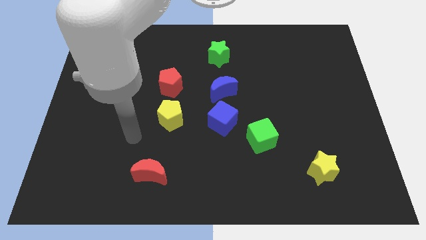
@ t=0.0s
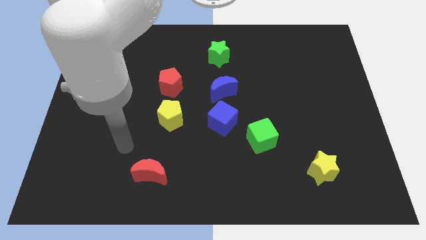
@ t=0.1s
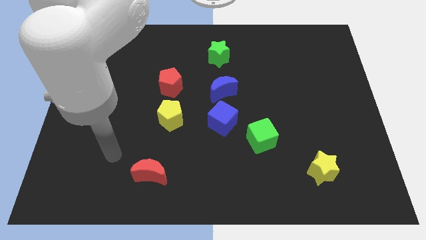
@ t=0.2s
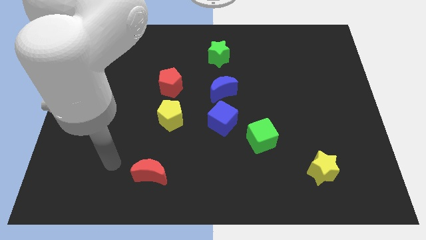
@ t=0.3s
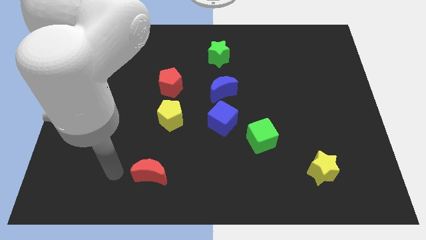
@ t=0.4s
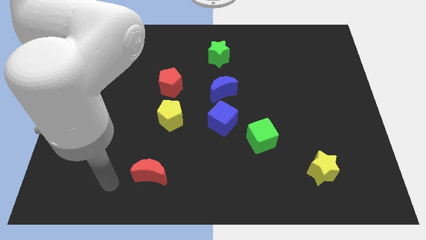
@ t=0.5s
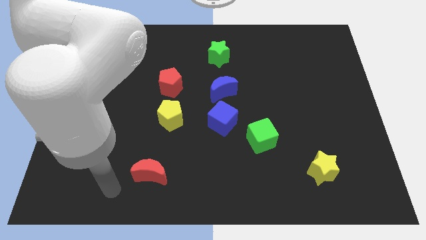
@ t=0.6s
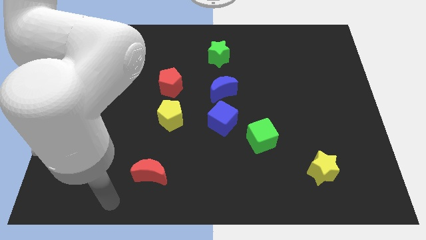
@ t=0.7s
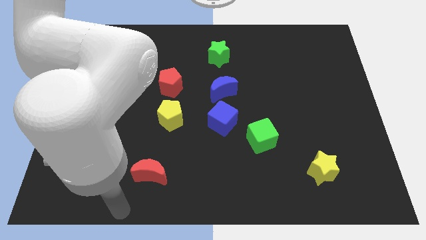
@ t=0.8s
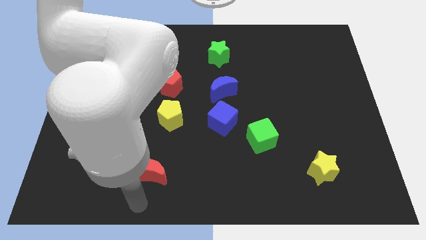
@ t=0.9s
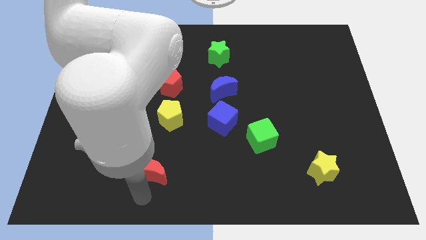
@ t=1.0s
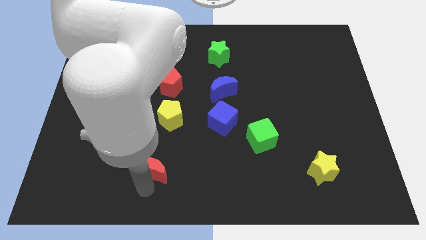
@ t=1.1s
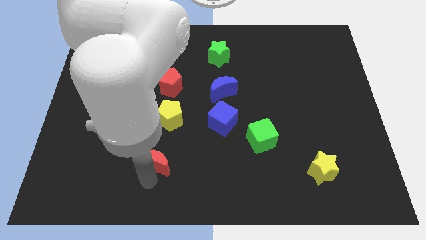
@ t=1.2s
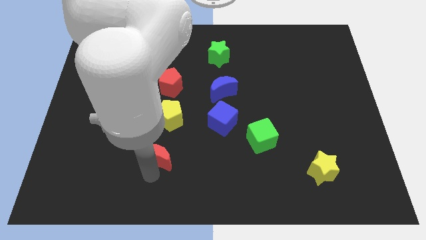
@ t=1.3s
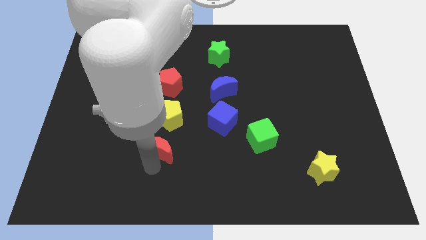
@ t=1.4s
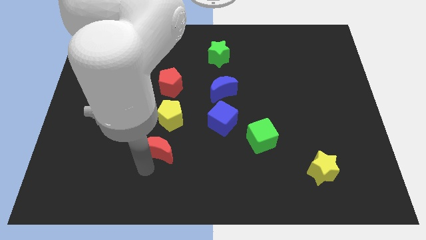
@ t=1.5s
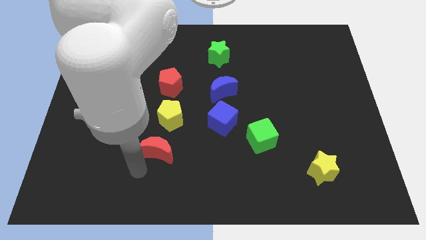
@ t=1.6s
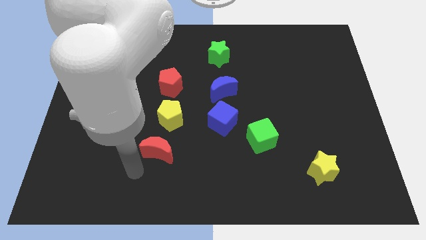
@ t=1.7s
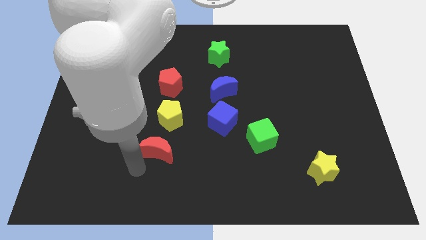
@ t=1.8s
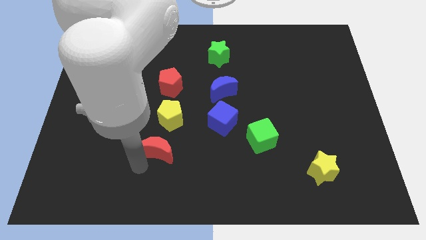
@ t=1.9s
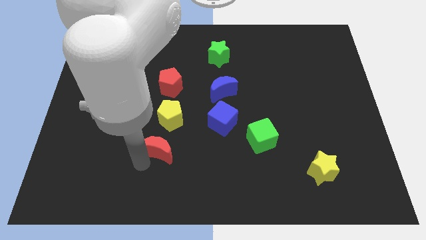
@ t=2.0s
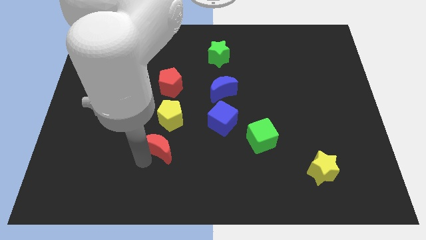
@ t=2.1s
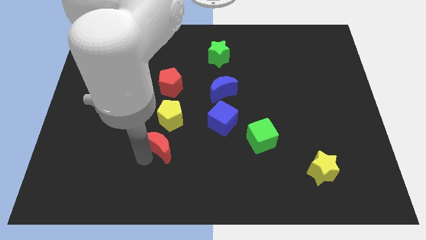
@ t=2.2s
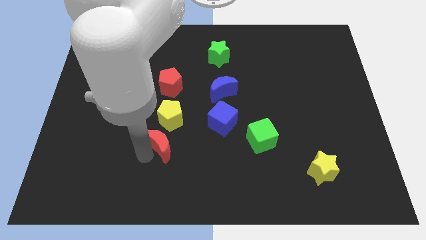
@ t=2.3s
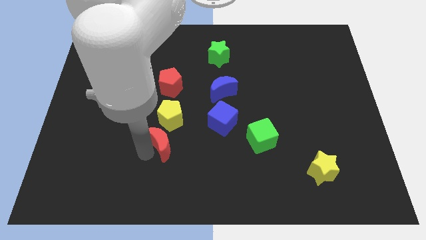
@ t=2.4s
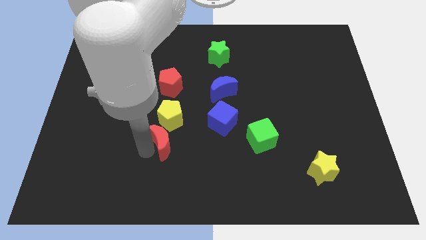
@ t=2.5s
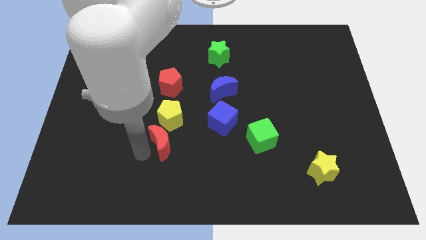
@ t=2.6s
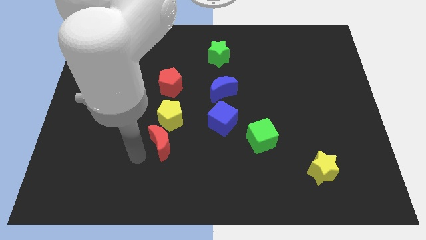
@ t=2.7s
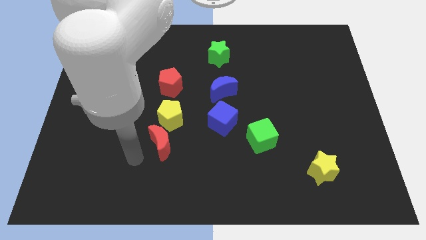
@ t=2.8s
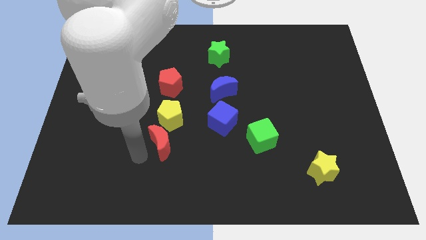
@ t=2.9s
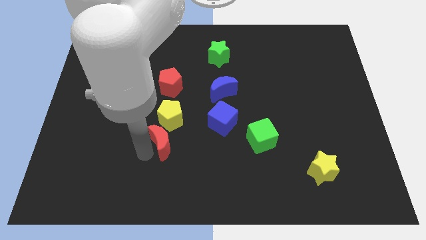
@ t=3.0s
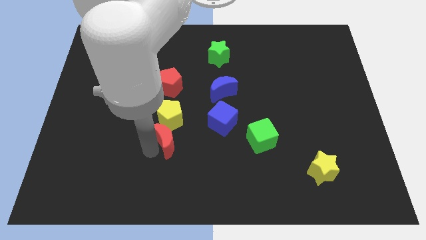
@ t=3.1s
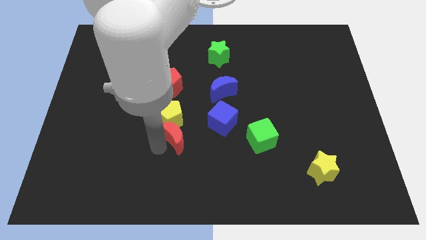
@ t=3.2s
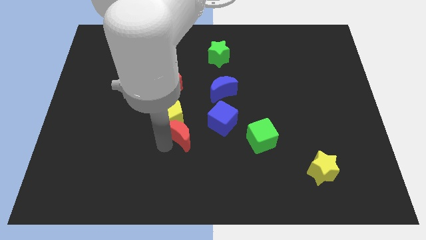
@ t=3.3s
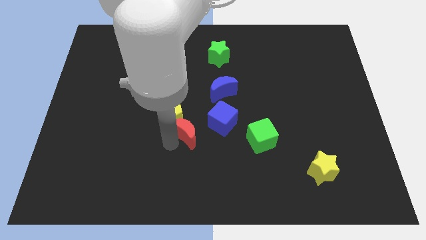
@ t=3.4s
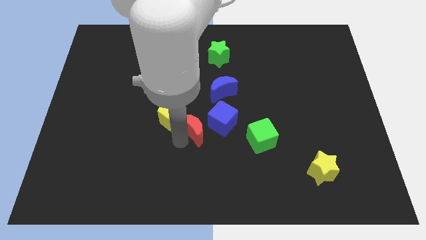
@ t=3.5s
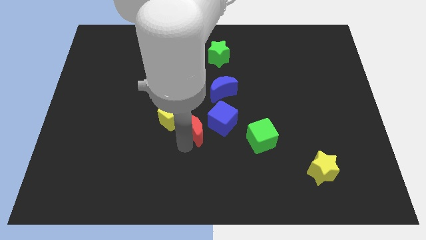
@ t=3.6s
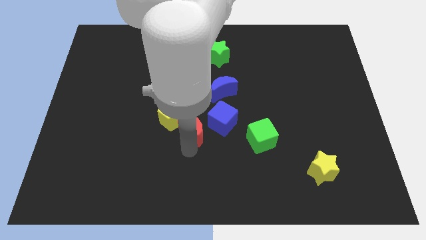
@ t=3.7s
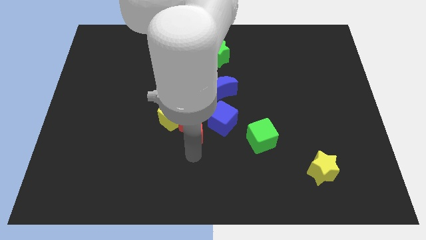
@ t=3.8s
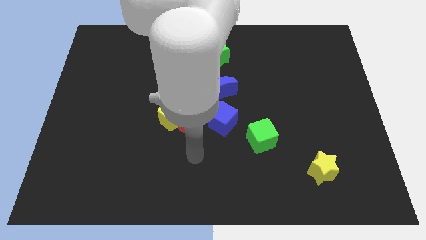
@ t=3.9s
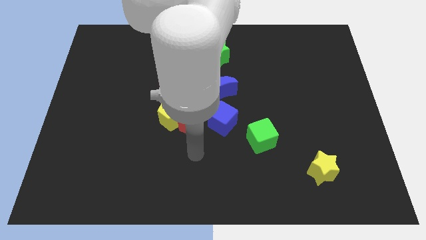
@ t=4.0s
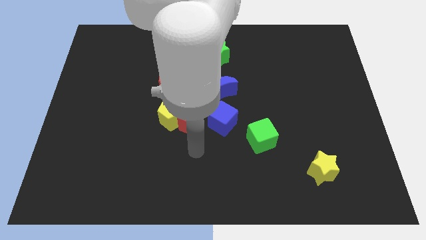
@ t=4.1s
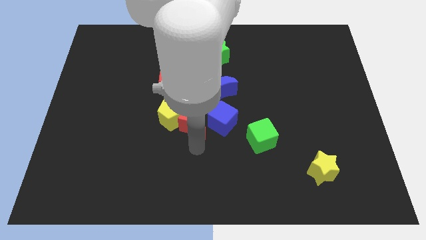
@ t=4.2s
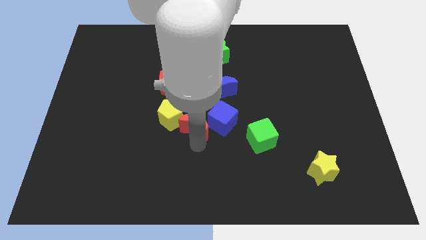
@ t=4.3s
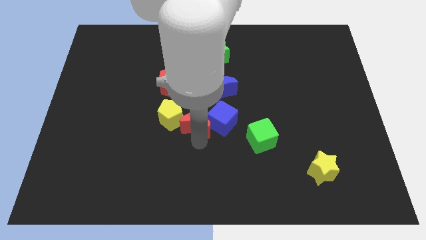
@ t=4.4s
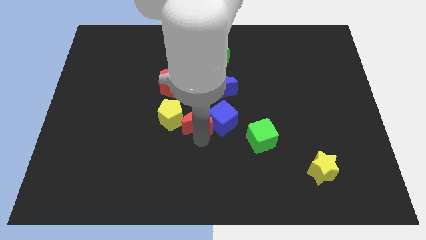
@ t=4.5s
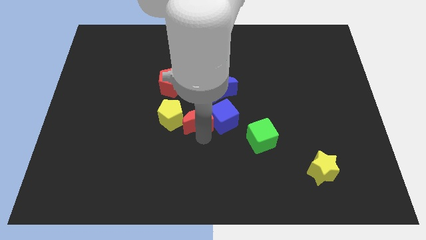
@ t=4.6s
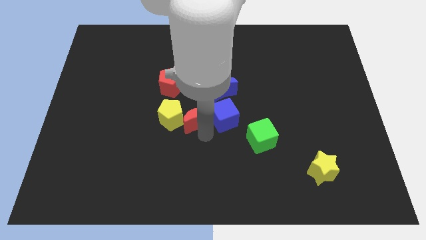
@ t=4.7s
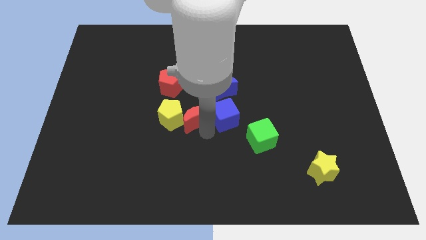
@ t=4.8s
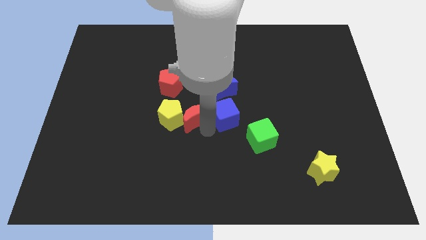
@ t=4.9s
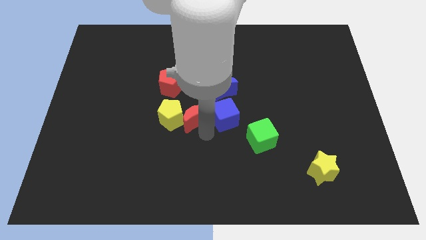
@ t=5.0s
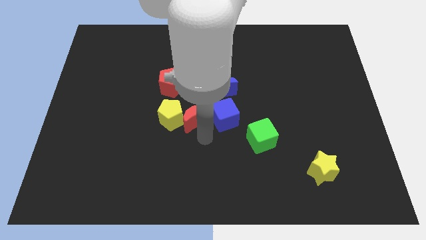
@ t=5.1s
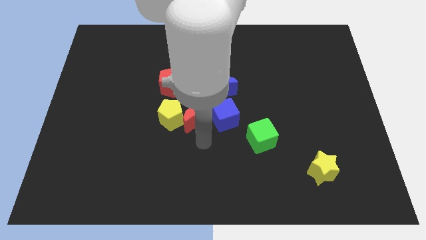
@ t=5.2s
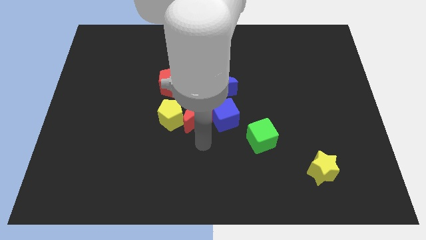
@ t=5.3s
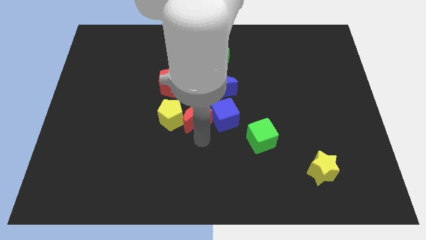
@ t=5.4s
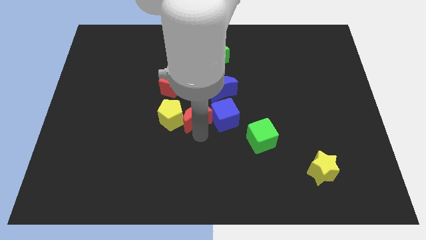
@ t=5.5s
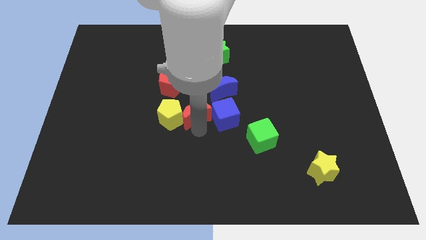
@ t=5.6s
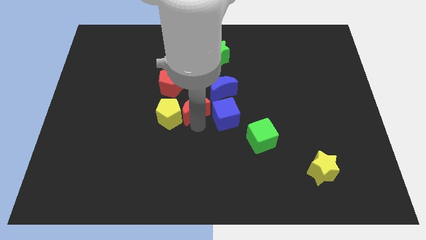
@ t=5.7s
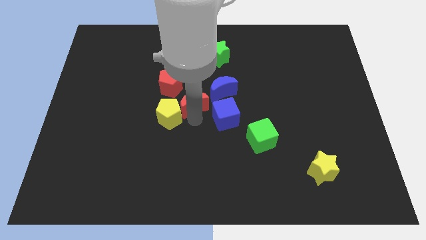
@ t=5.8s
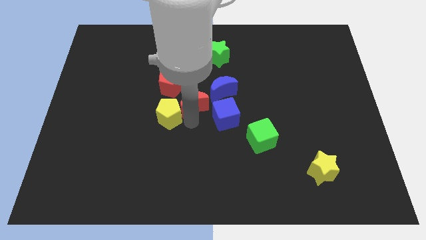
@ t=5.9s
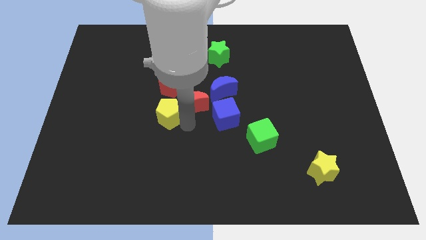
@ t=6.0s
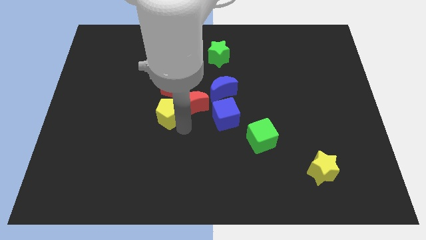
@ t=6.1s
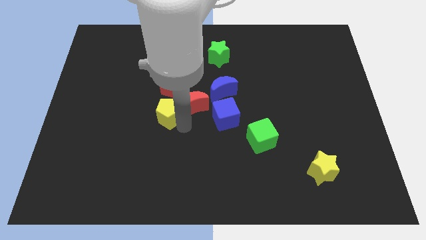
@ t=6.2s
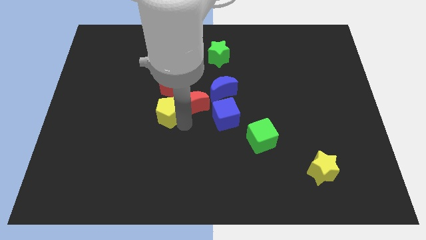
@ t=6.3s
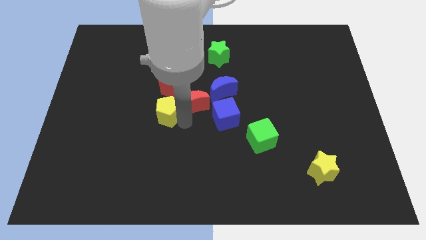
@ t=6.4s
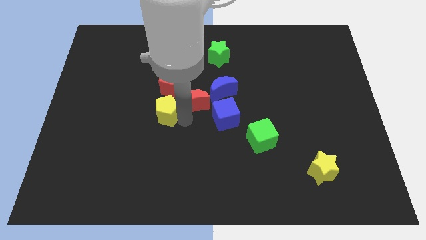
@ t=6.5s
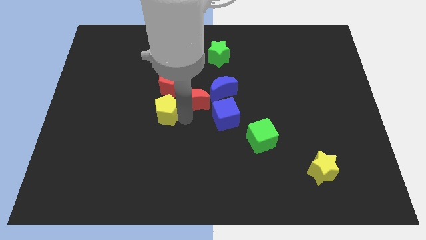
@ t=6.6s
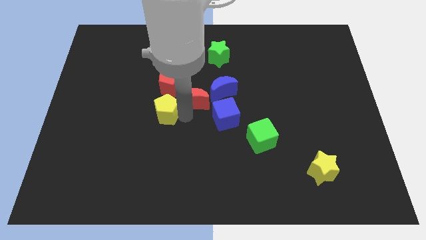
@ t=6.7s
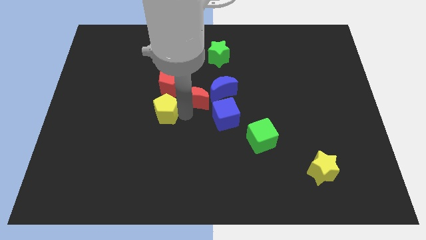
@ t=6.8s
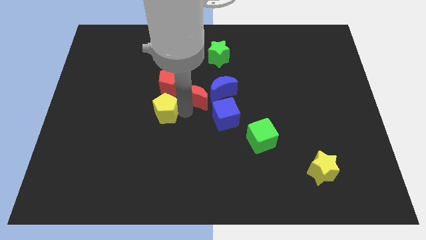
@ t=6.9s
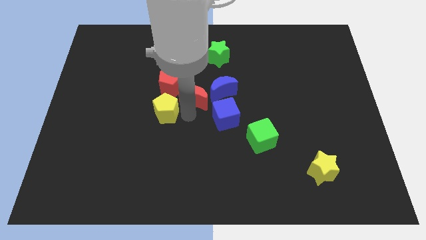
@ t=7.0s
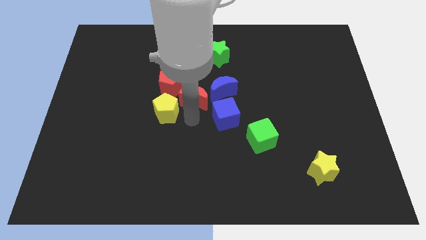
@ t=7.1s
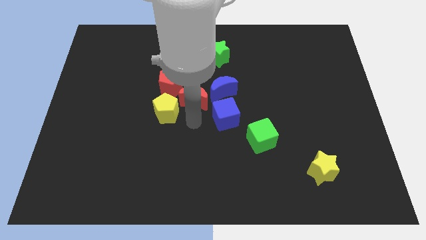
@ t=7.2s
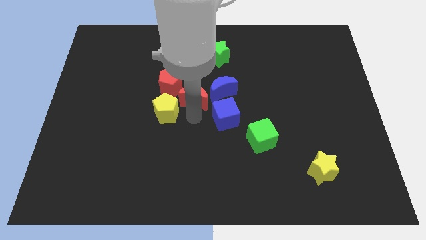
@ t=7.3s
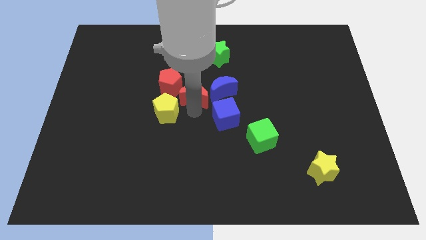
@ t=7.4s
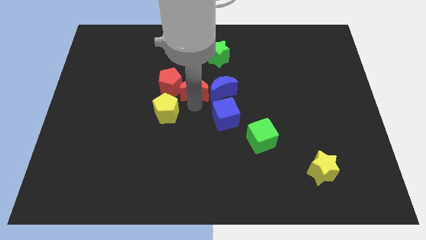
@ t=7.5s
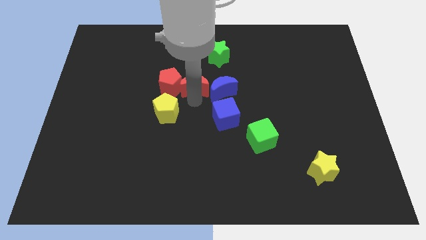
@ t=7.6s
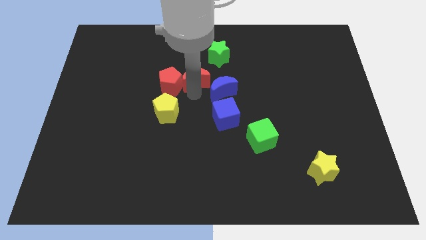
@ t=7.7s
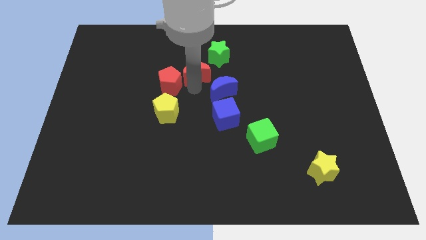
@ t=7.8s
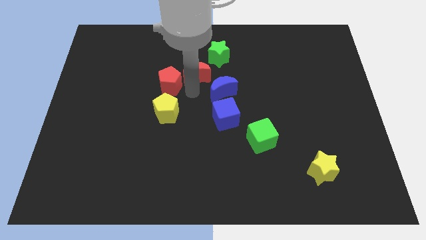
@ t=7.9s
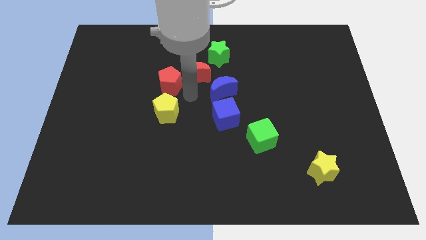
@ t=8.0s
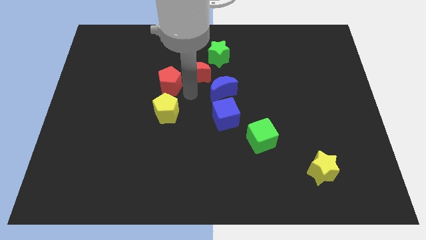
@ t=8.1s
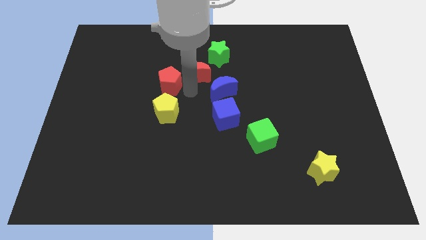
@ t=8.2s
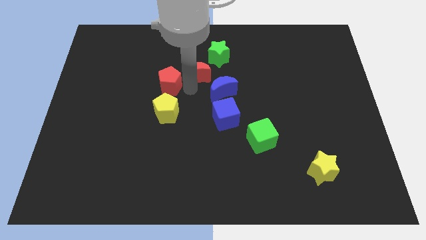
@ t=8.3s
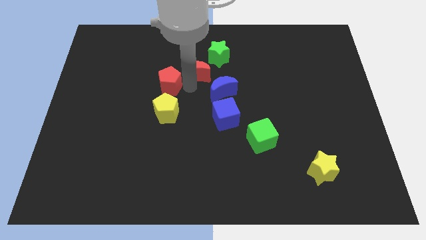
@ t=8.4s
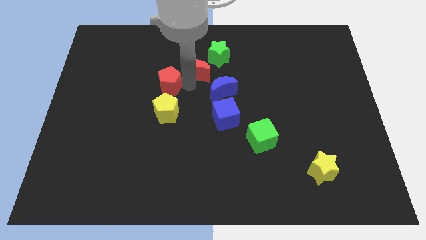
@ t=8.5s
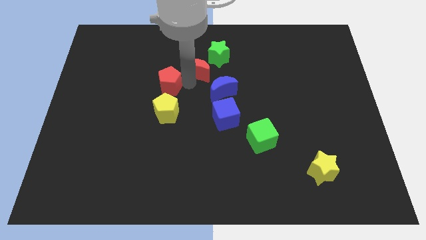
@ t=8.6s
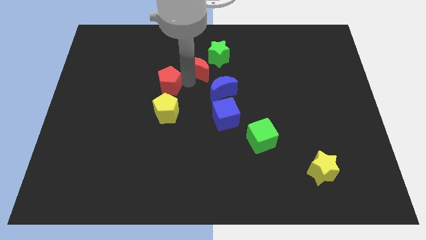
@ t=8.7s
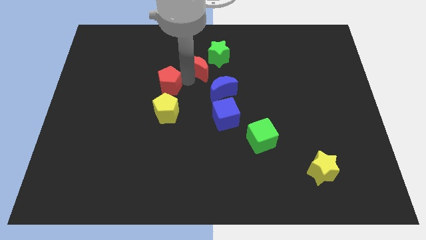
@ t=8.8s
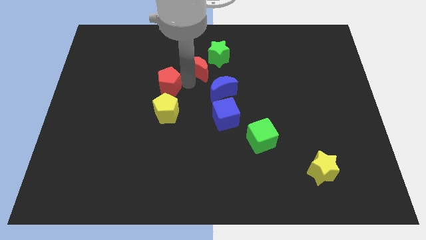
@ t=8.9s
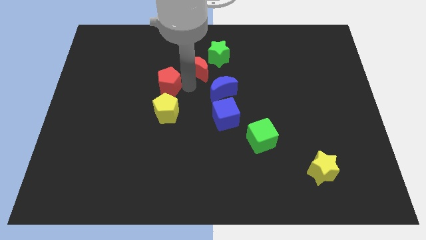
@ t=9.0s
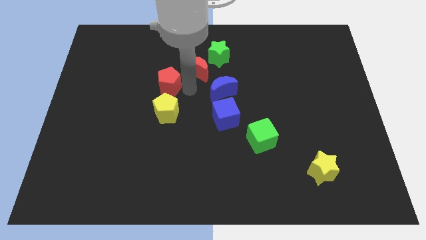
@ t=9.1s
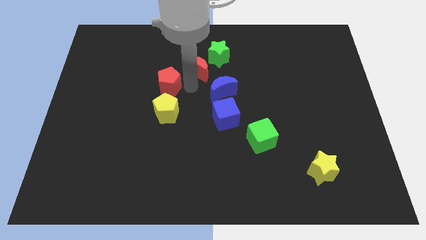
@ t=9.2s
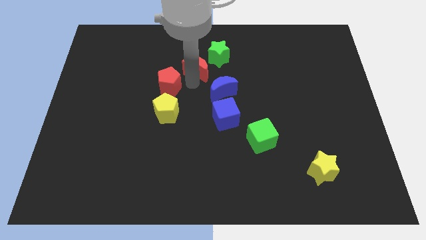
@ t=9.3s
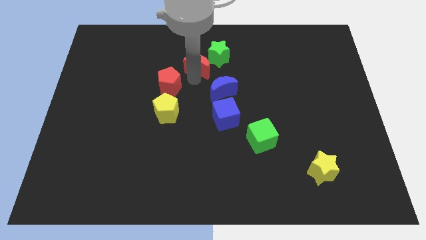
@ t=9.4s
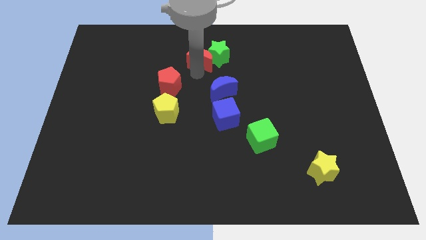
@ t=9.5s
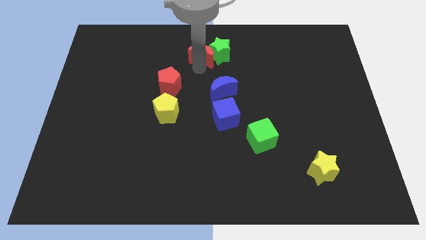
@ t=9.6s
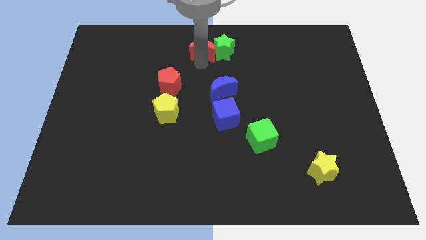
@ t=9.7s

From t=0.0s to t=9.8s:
move the red moon to the top
